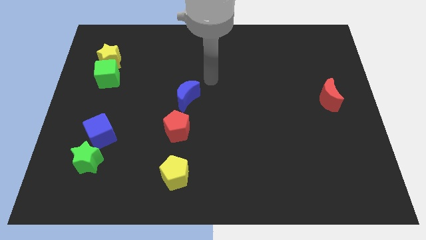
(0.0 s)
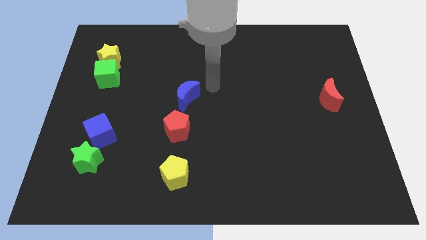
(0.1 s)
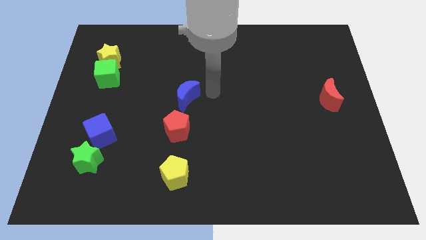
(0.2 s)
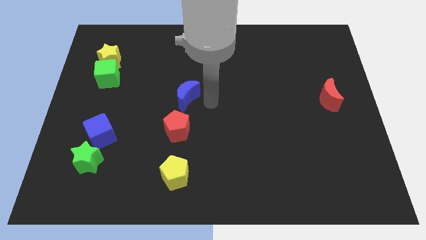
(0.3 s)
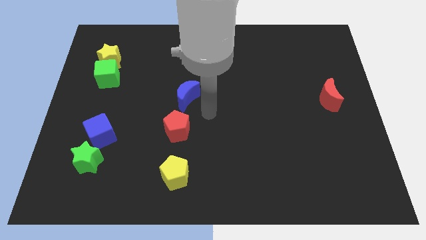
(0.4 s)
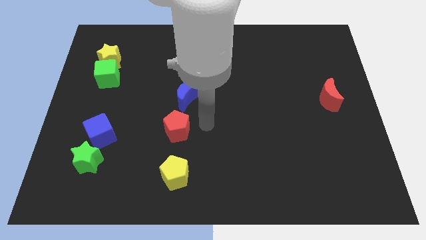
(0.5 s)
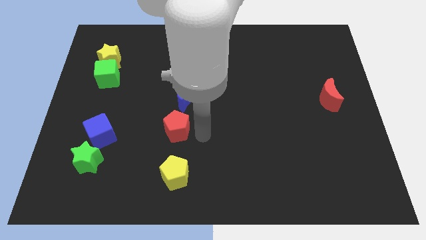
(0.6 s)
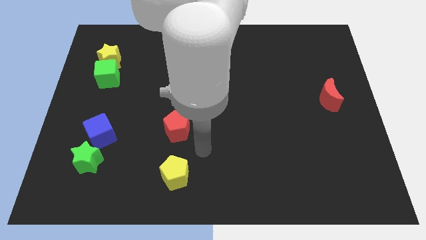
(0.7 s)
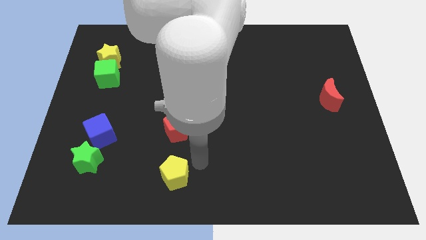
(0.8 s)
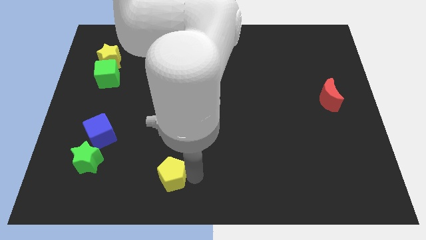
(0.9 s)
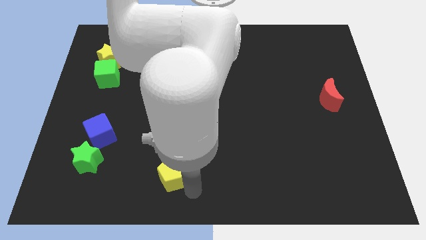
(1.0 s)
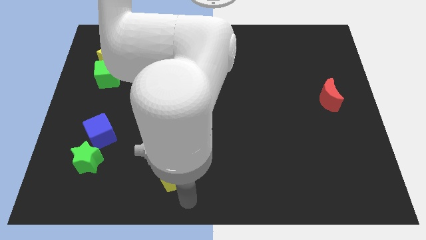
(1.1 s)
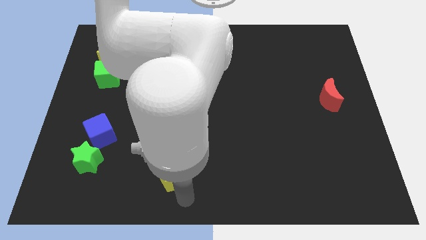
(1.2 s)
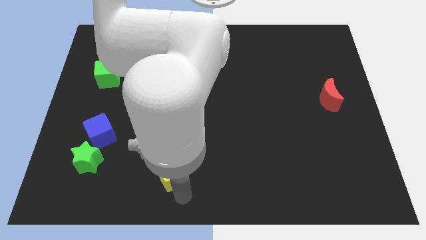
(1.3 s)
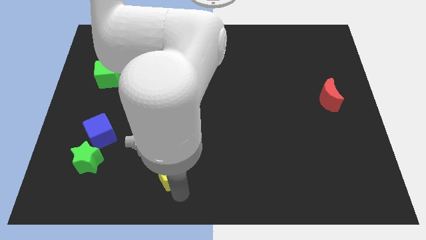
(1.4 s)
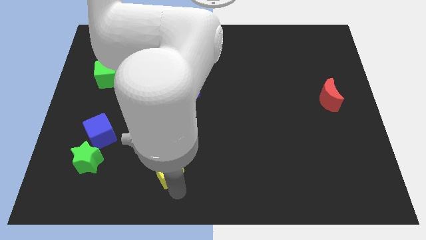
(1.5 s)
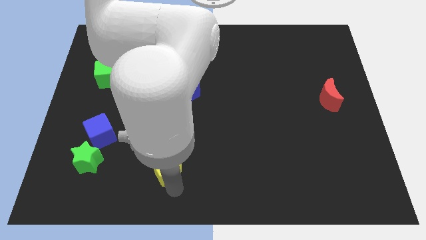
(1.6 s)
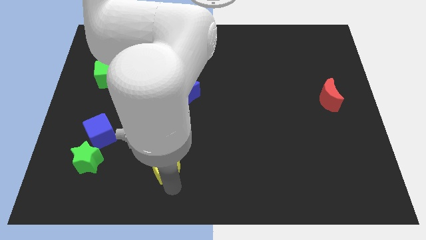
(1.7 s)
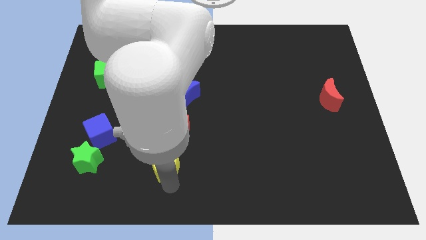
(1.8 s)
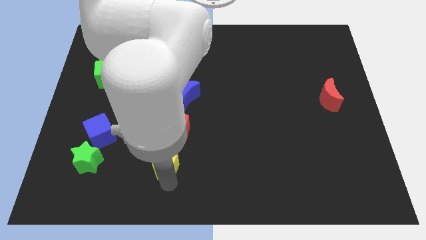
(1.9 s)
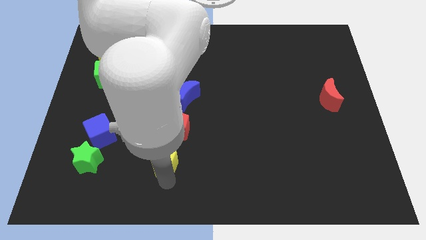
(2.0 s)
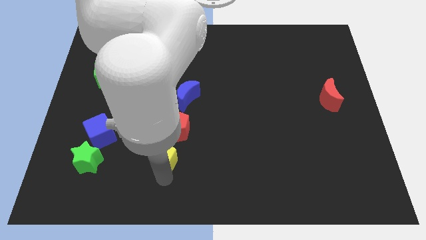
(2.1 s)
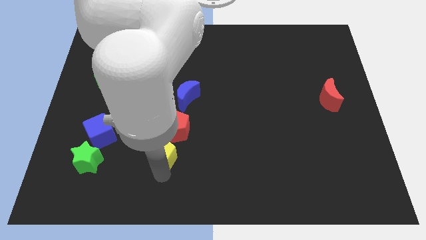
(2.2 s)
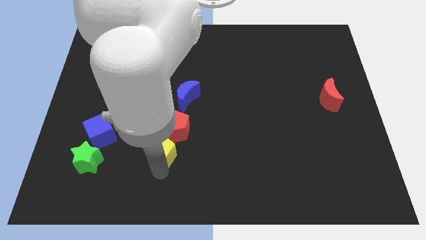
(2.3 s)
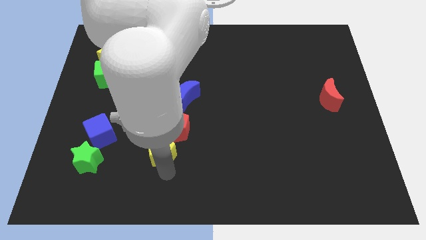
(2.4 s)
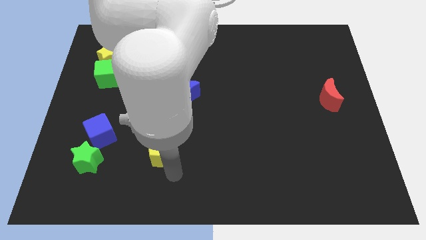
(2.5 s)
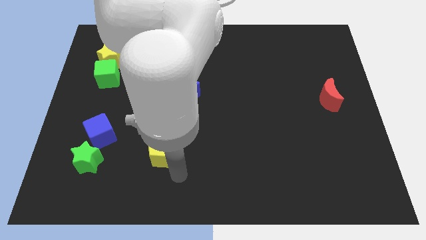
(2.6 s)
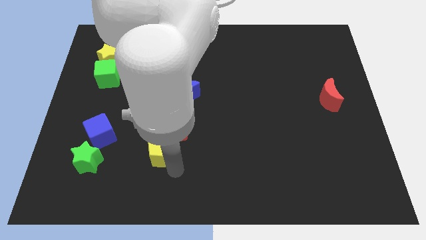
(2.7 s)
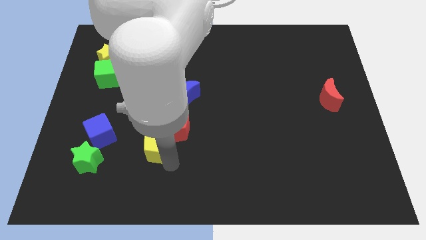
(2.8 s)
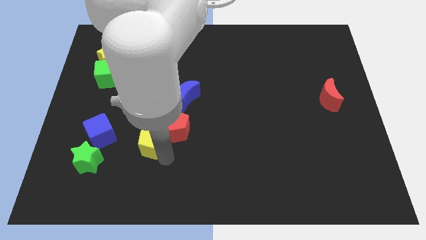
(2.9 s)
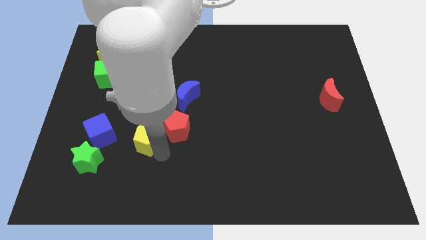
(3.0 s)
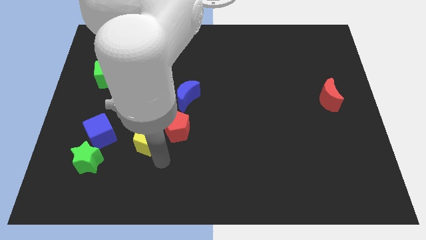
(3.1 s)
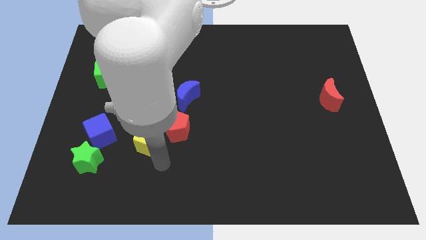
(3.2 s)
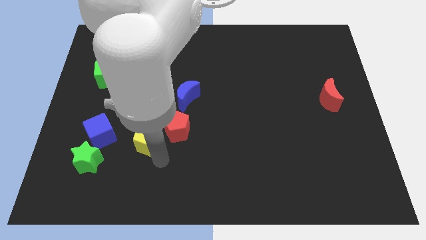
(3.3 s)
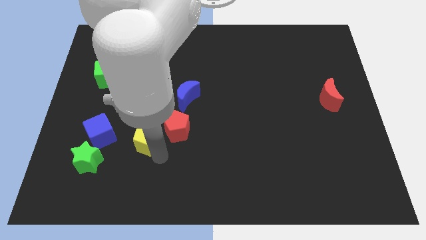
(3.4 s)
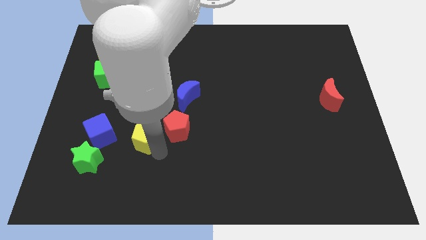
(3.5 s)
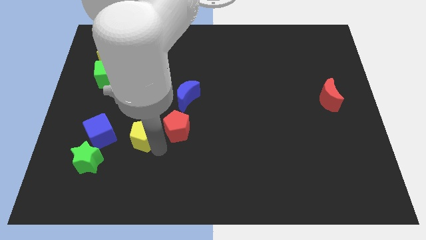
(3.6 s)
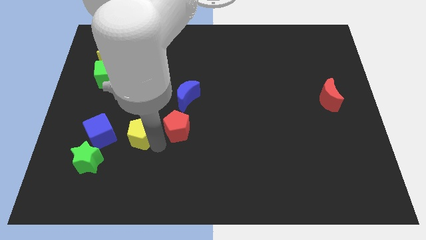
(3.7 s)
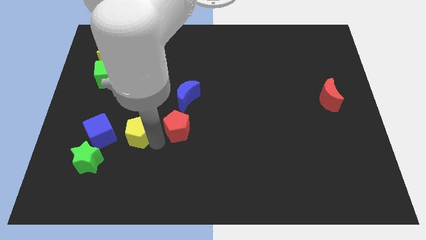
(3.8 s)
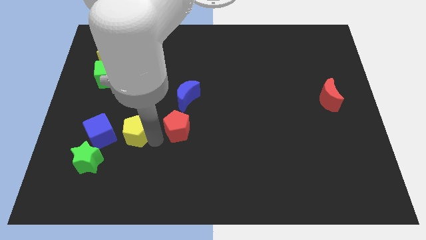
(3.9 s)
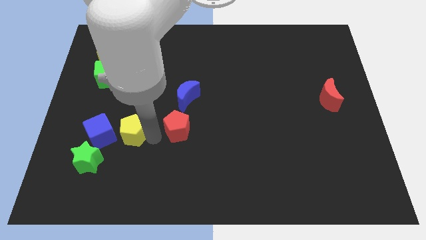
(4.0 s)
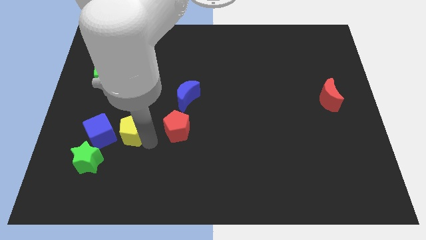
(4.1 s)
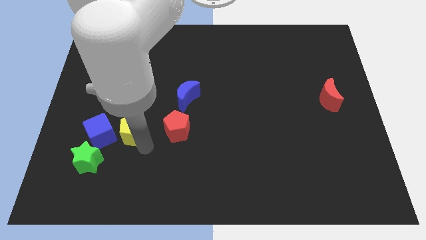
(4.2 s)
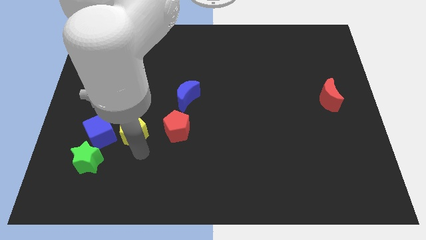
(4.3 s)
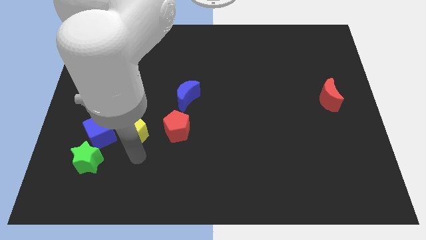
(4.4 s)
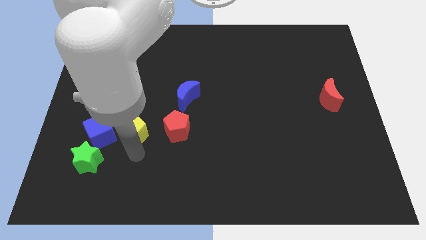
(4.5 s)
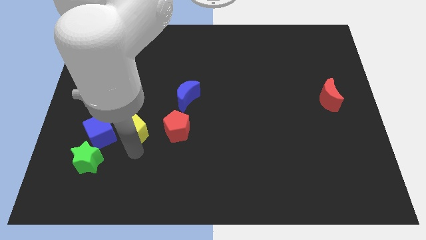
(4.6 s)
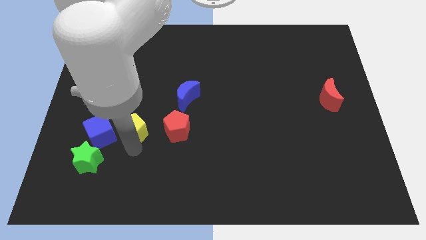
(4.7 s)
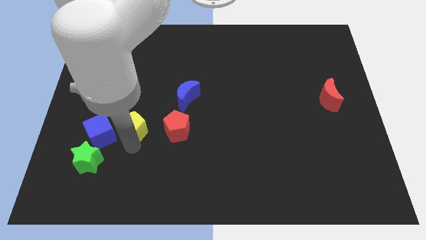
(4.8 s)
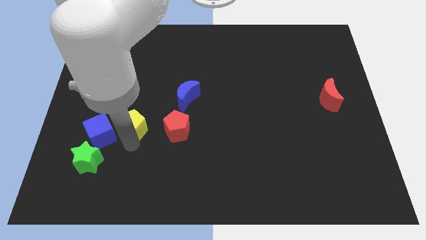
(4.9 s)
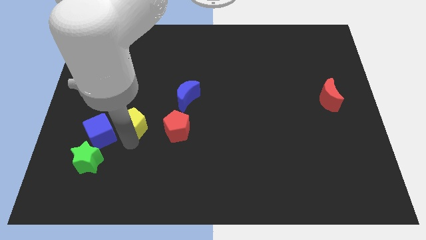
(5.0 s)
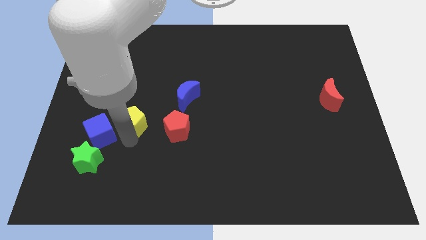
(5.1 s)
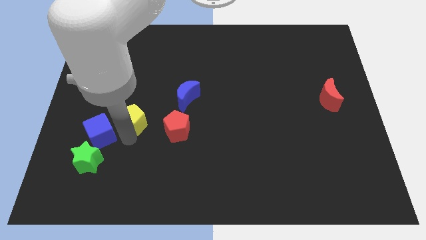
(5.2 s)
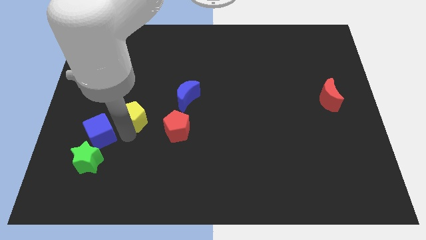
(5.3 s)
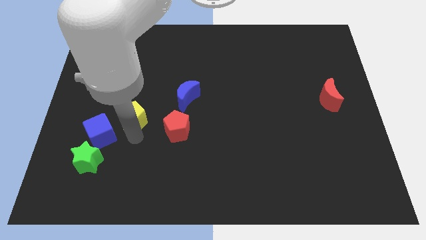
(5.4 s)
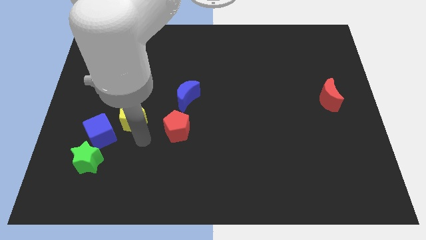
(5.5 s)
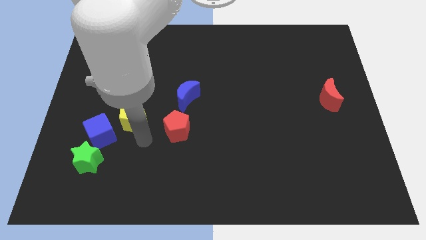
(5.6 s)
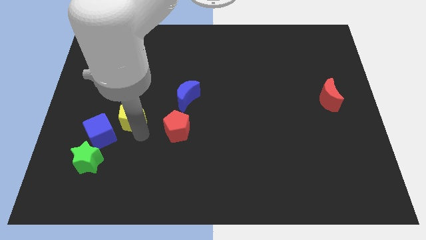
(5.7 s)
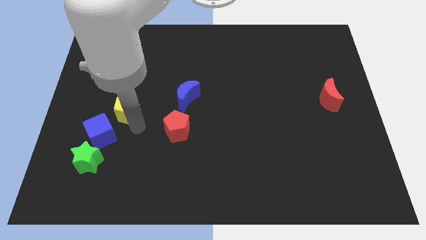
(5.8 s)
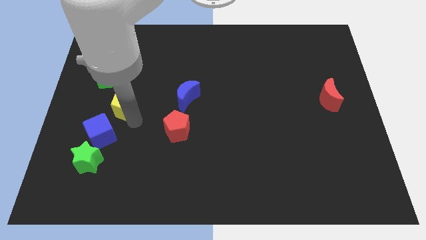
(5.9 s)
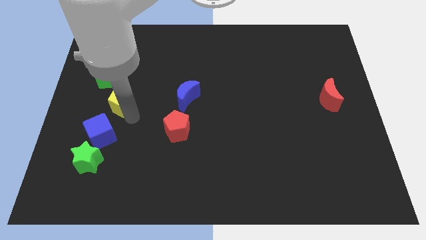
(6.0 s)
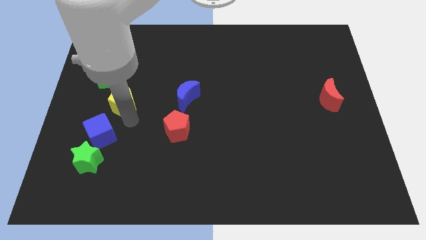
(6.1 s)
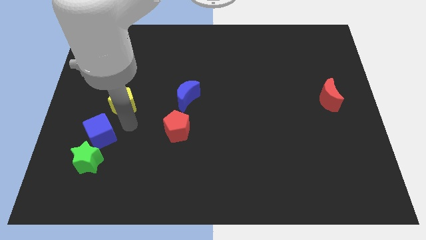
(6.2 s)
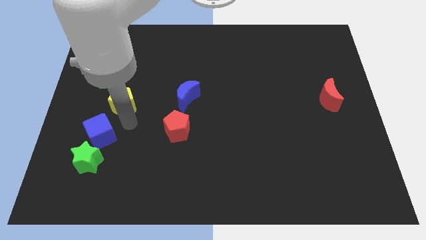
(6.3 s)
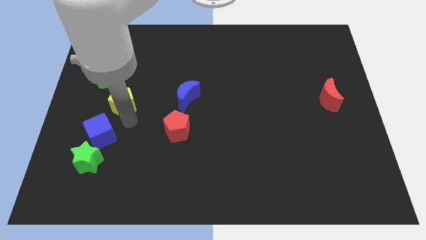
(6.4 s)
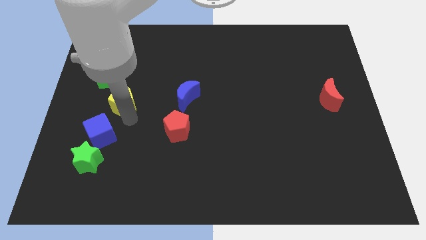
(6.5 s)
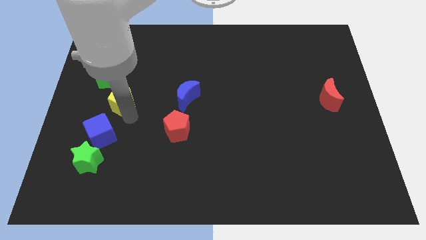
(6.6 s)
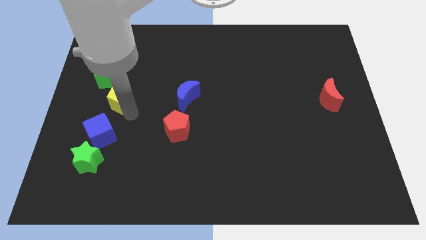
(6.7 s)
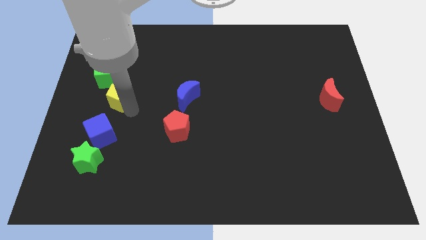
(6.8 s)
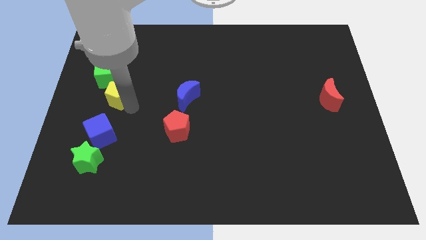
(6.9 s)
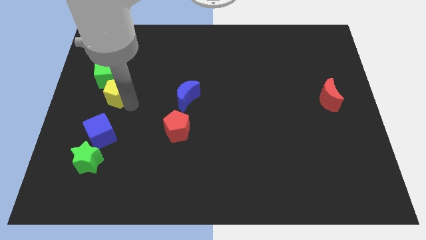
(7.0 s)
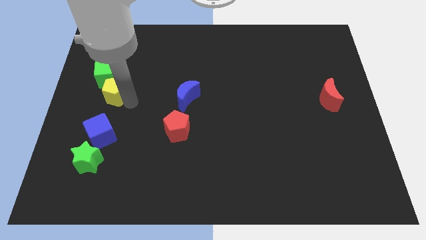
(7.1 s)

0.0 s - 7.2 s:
move the yellow pentagon towards the green cube
